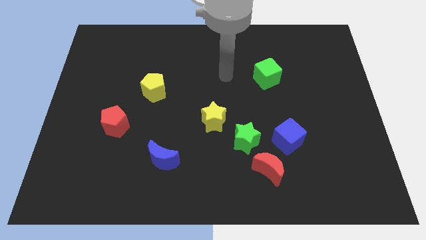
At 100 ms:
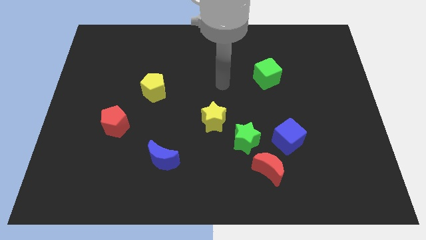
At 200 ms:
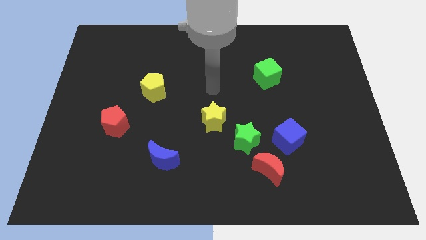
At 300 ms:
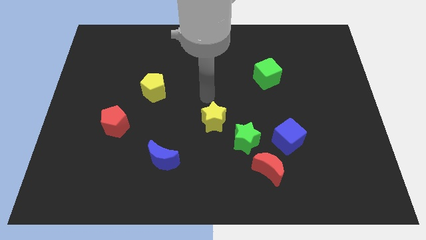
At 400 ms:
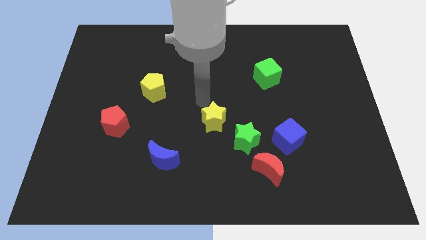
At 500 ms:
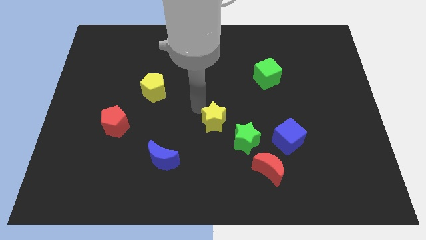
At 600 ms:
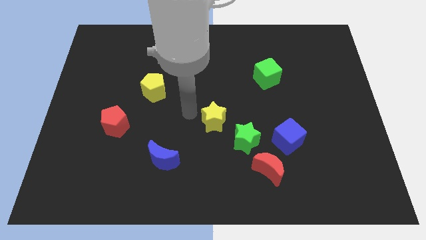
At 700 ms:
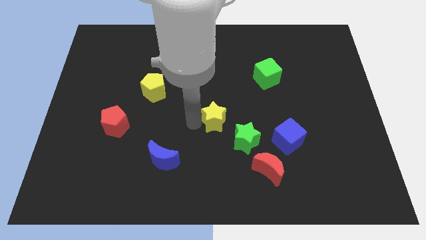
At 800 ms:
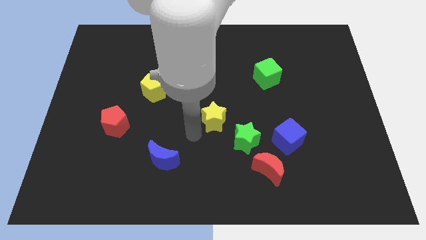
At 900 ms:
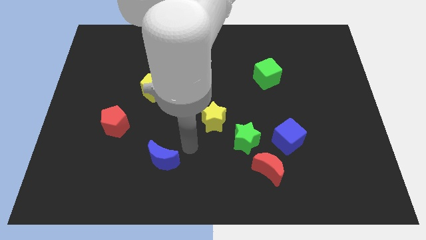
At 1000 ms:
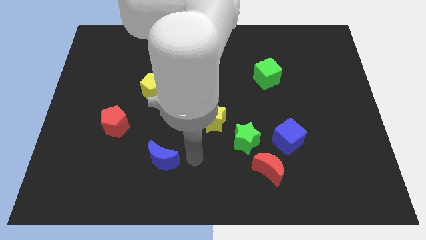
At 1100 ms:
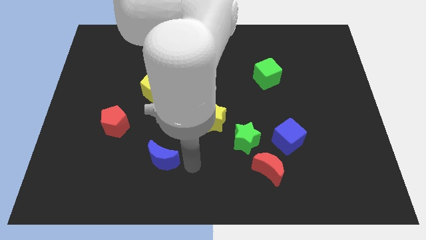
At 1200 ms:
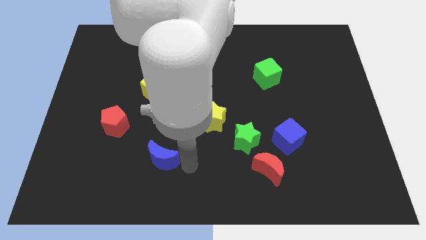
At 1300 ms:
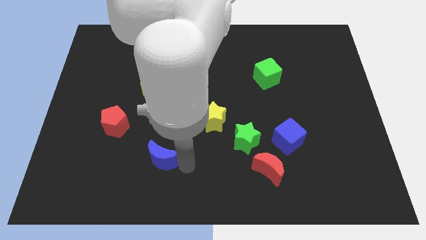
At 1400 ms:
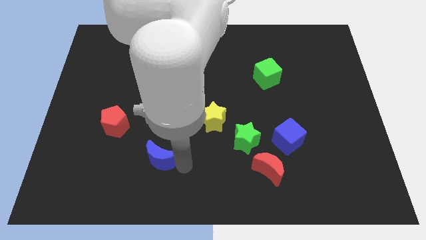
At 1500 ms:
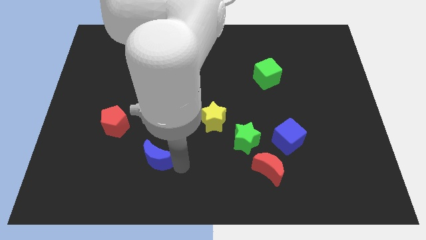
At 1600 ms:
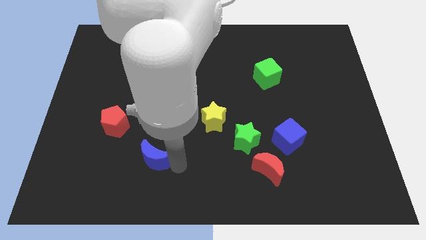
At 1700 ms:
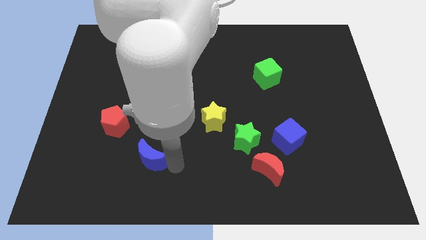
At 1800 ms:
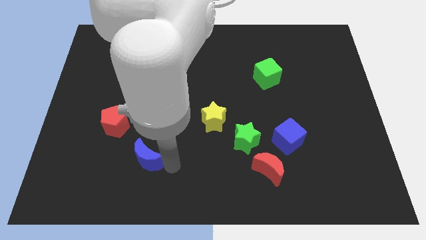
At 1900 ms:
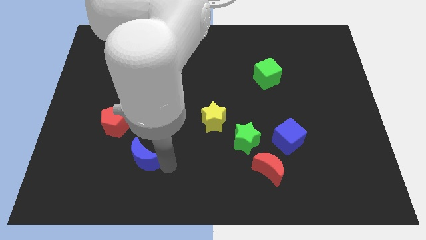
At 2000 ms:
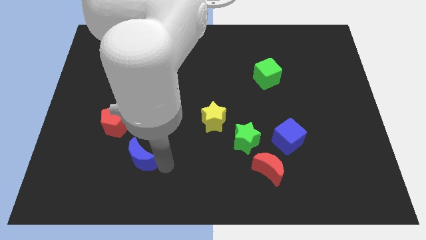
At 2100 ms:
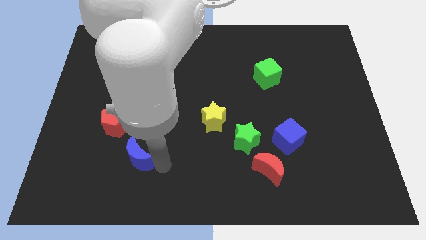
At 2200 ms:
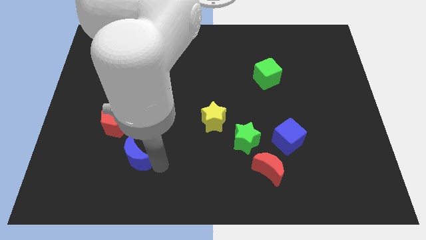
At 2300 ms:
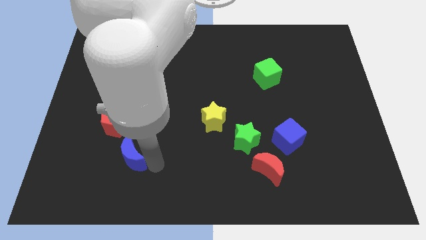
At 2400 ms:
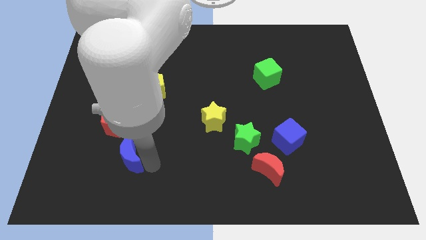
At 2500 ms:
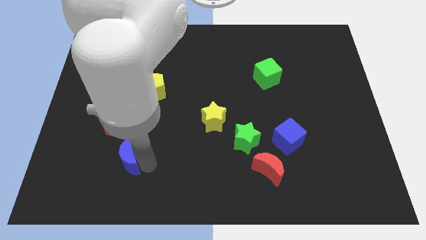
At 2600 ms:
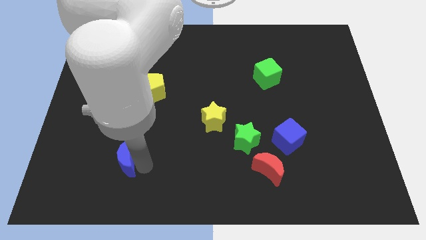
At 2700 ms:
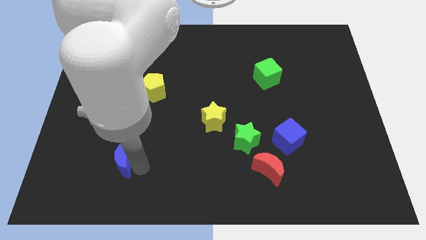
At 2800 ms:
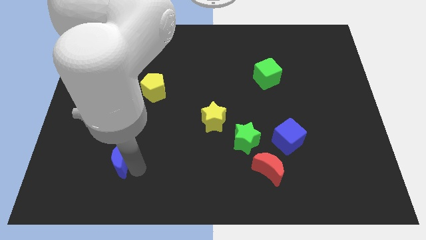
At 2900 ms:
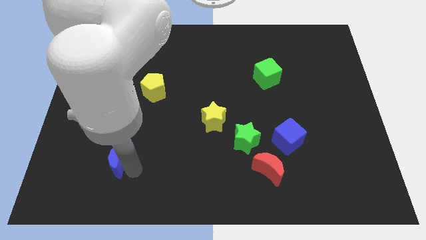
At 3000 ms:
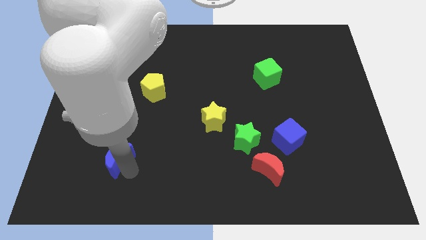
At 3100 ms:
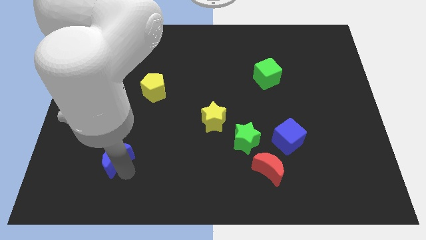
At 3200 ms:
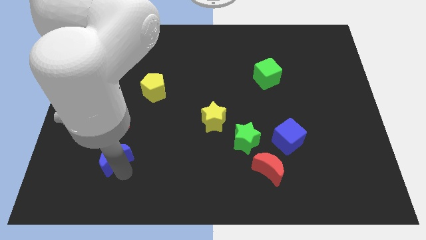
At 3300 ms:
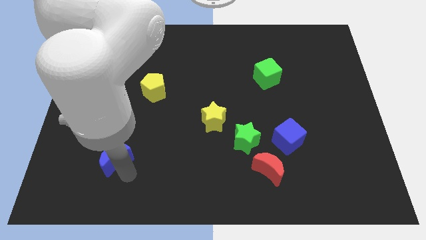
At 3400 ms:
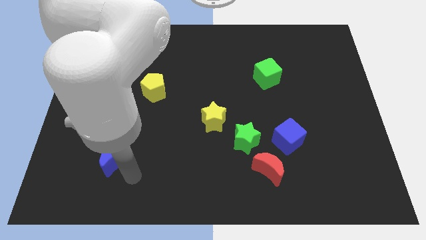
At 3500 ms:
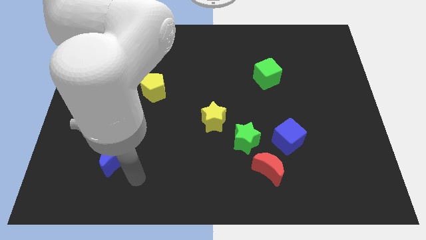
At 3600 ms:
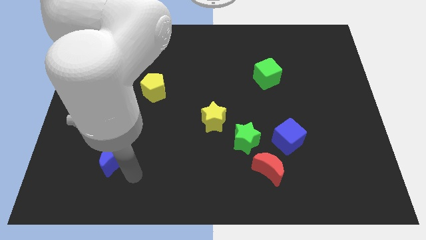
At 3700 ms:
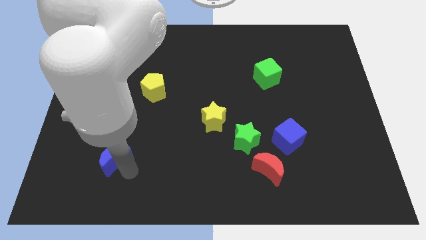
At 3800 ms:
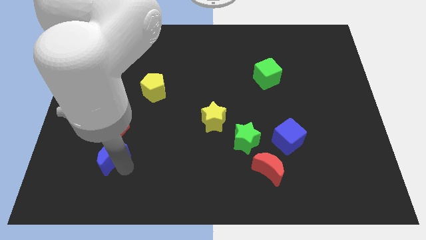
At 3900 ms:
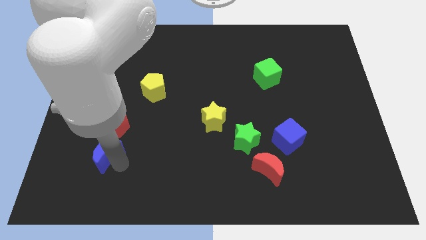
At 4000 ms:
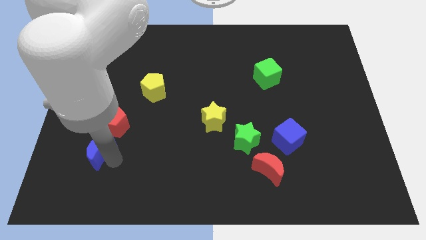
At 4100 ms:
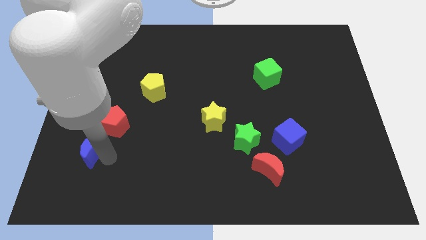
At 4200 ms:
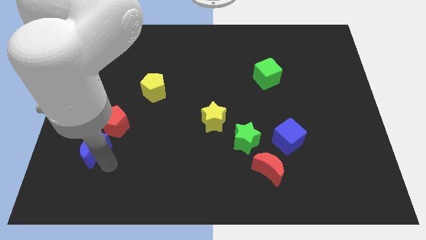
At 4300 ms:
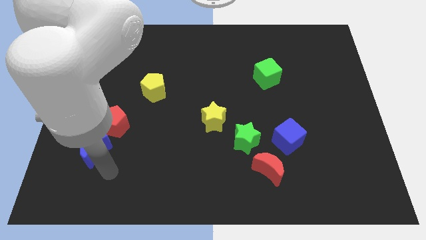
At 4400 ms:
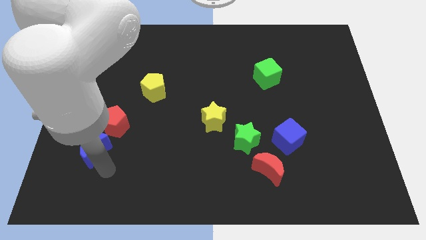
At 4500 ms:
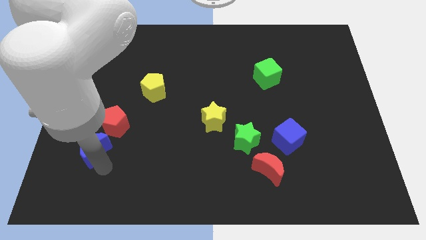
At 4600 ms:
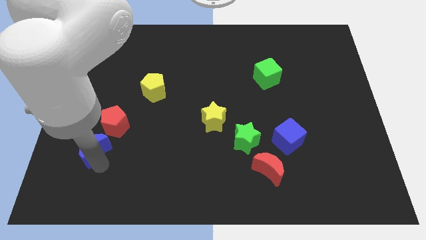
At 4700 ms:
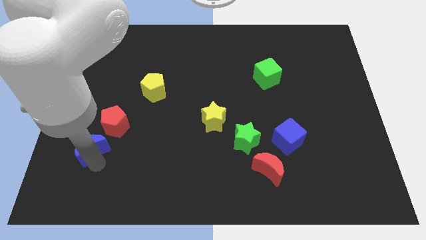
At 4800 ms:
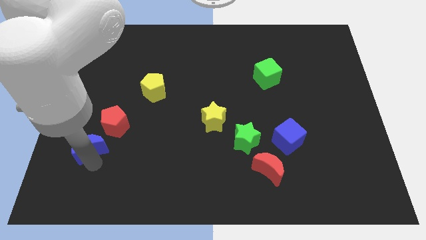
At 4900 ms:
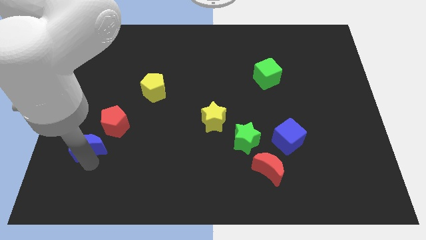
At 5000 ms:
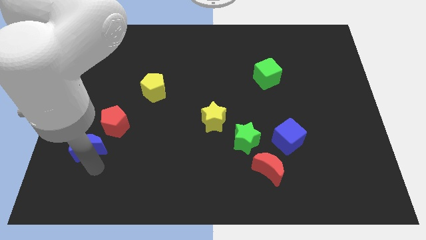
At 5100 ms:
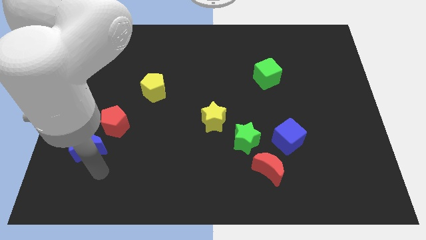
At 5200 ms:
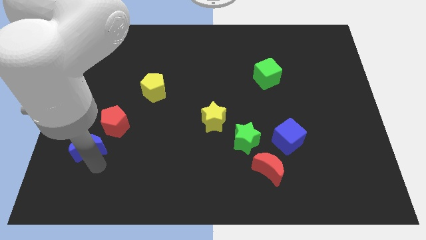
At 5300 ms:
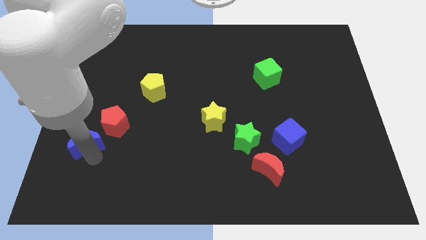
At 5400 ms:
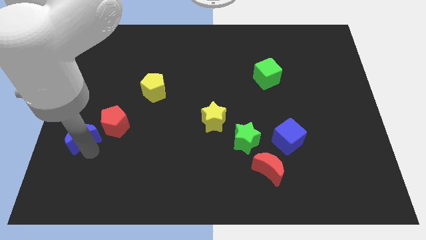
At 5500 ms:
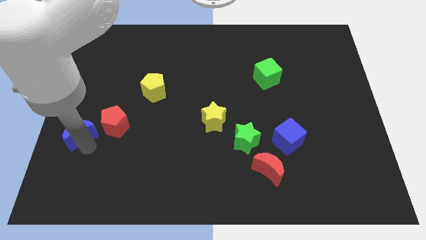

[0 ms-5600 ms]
push the blue moon to the left side of the board

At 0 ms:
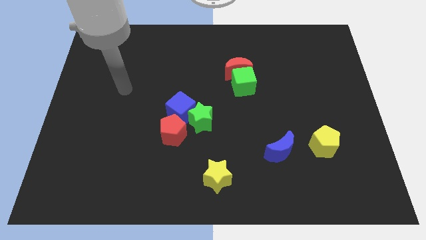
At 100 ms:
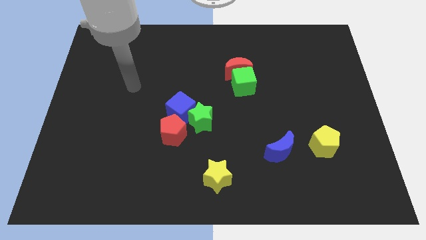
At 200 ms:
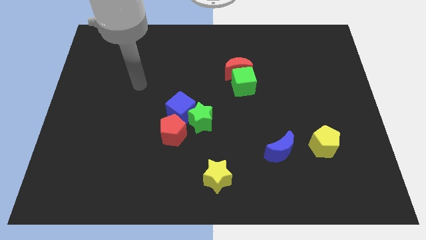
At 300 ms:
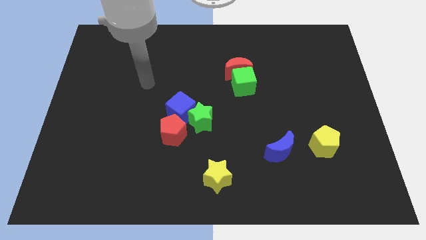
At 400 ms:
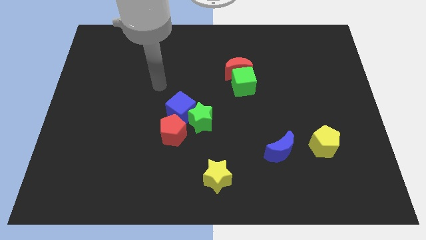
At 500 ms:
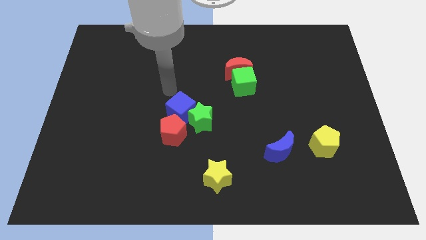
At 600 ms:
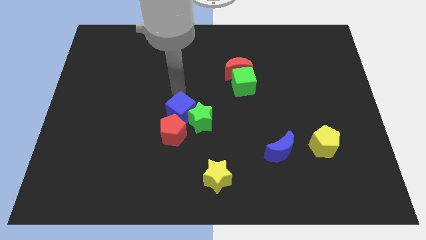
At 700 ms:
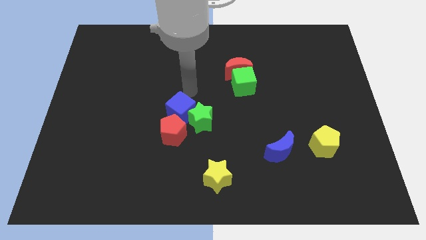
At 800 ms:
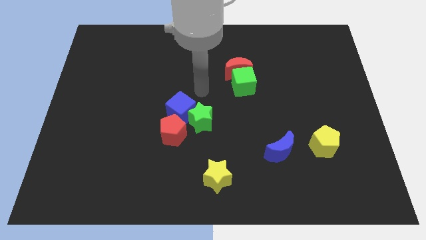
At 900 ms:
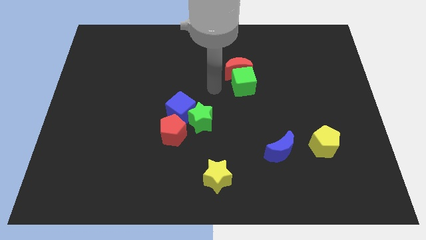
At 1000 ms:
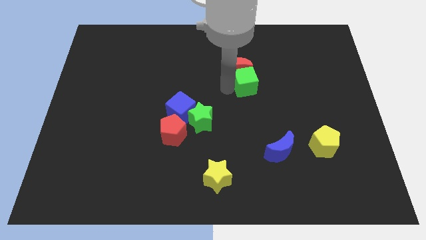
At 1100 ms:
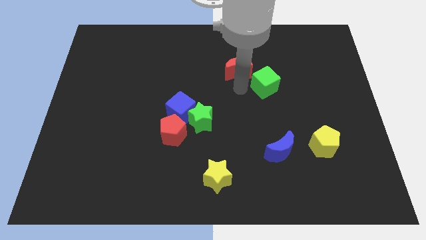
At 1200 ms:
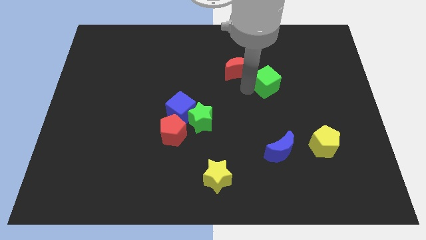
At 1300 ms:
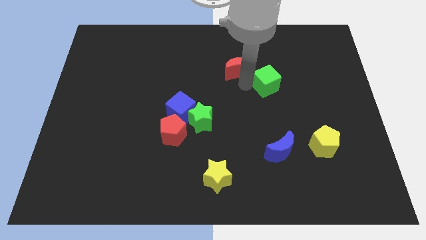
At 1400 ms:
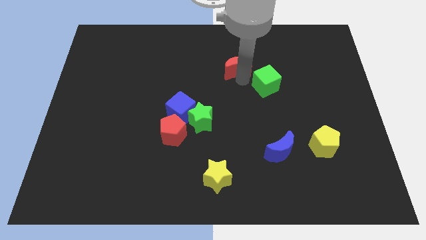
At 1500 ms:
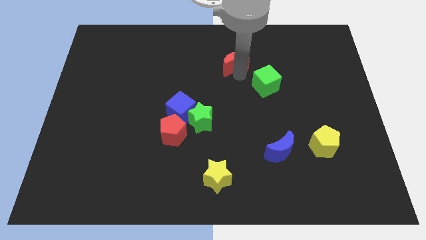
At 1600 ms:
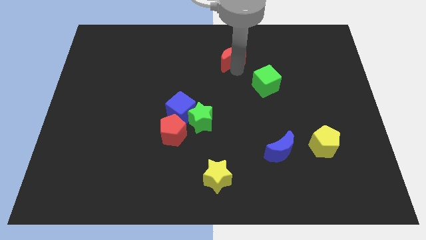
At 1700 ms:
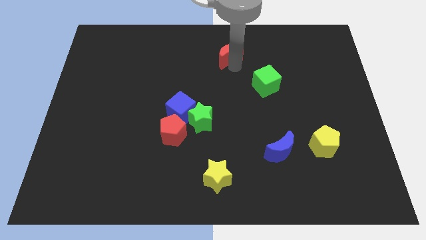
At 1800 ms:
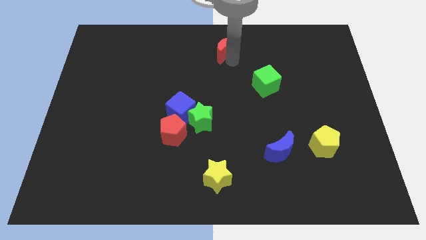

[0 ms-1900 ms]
put the red moon to the towards your base
